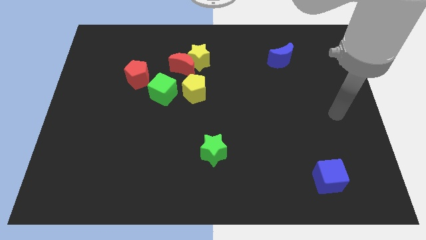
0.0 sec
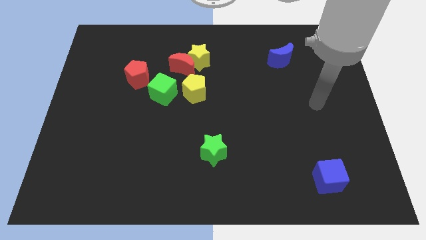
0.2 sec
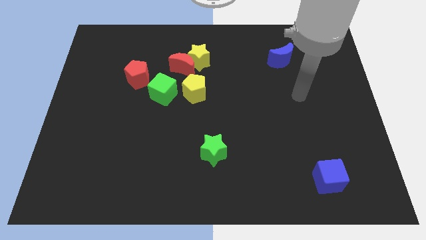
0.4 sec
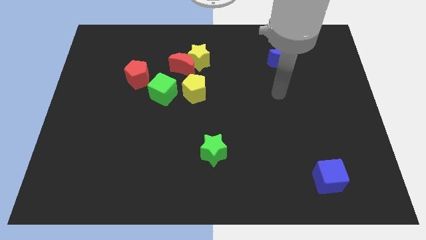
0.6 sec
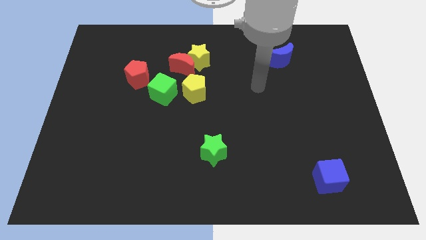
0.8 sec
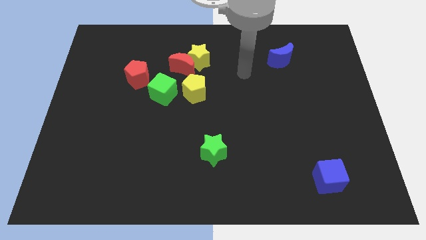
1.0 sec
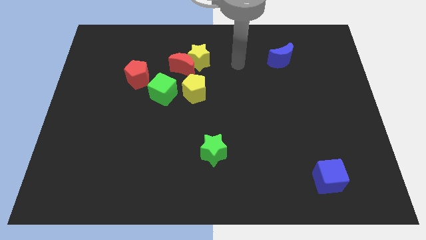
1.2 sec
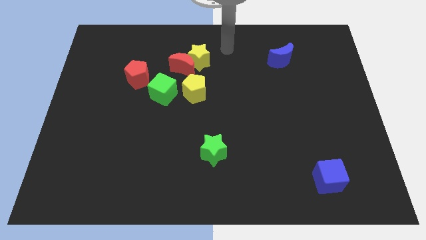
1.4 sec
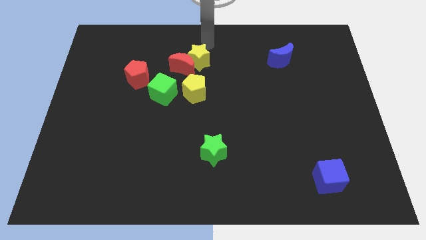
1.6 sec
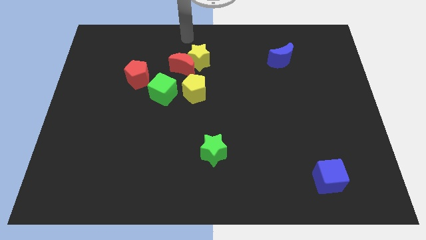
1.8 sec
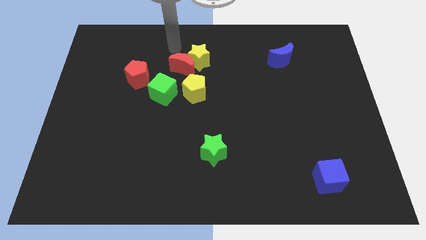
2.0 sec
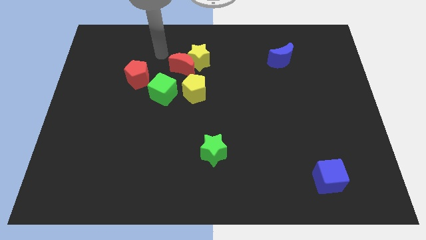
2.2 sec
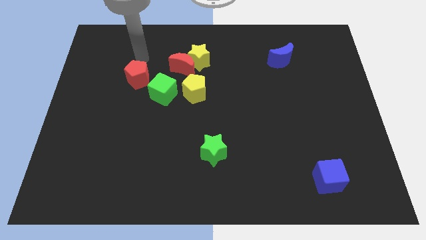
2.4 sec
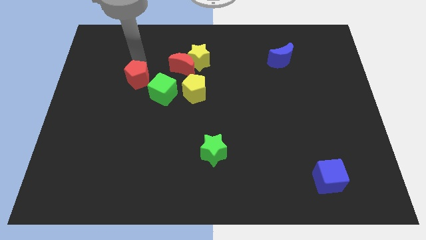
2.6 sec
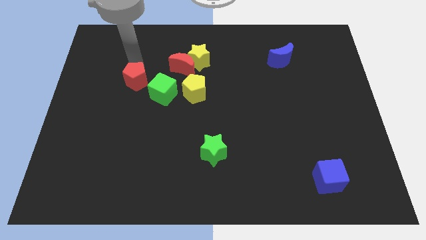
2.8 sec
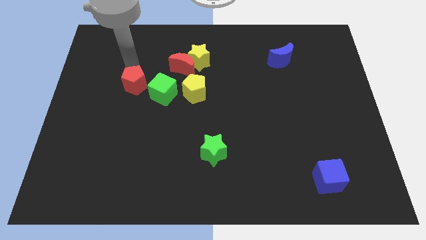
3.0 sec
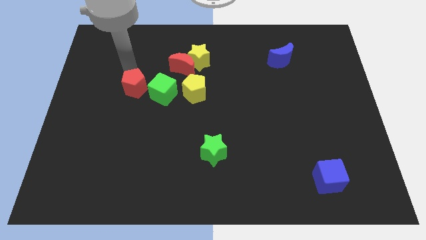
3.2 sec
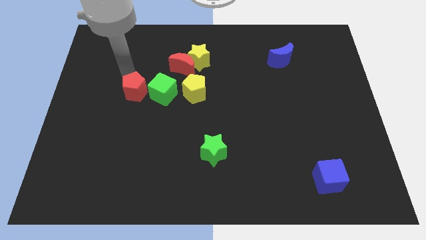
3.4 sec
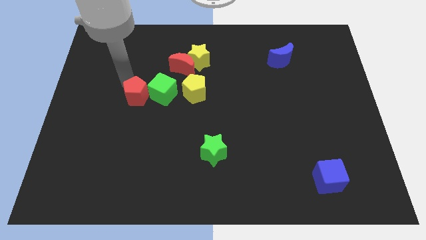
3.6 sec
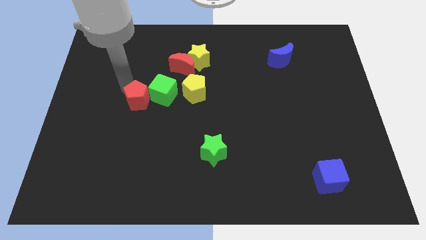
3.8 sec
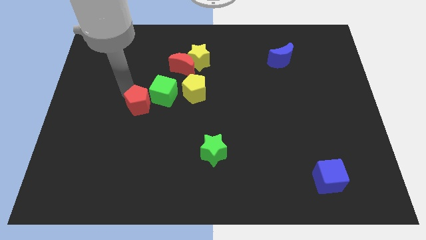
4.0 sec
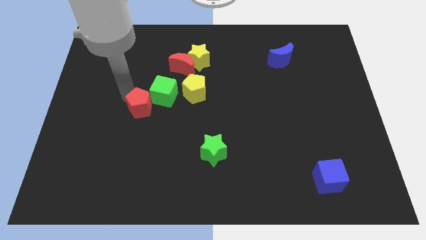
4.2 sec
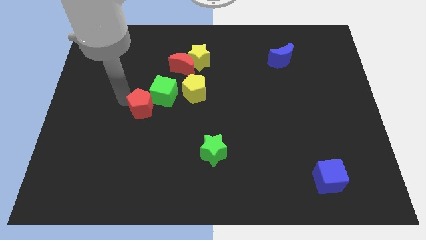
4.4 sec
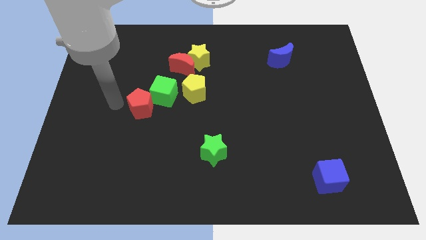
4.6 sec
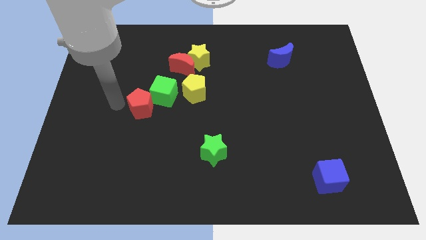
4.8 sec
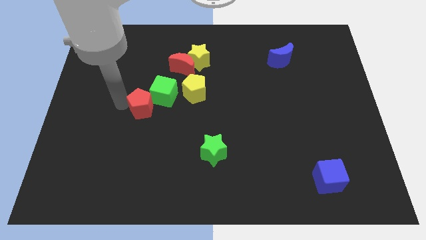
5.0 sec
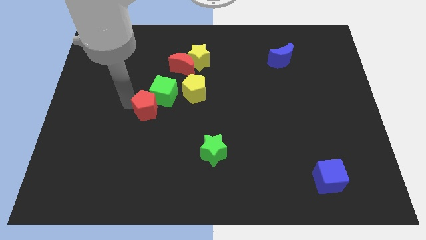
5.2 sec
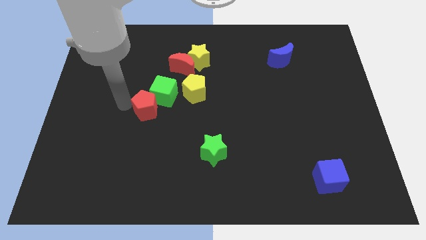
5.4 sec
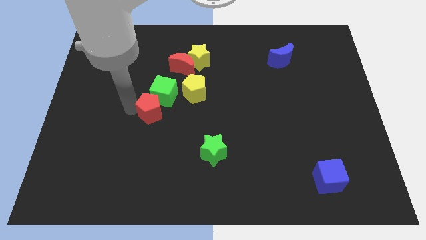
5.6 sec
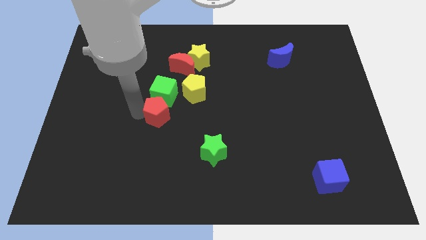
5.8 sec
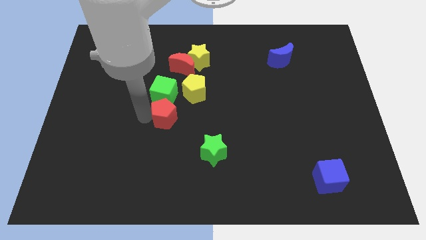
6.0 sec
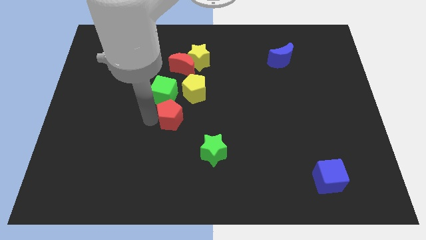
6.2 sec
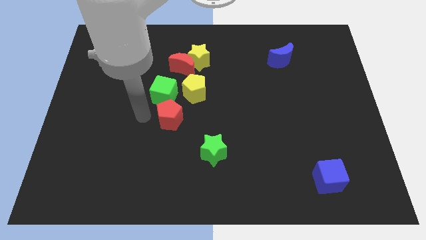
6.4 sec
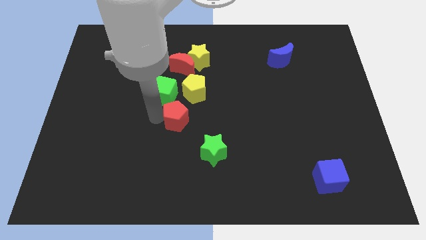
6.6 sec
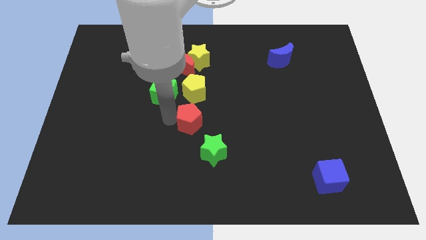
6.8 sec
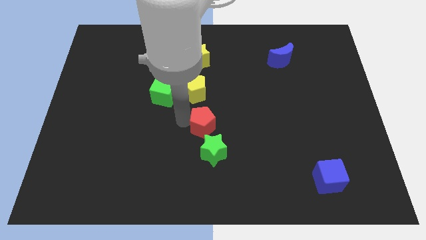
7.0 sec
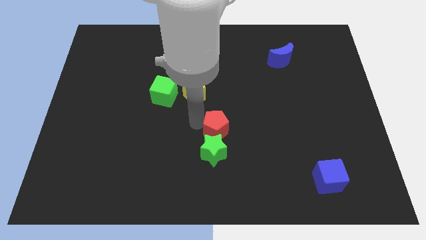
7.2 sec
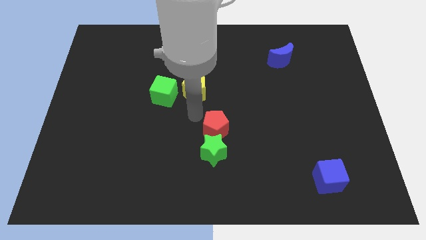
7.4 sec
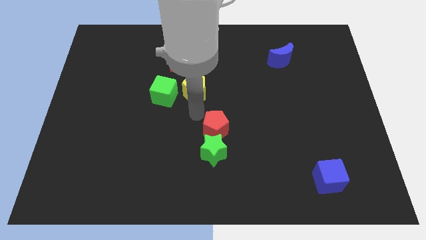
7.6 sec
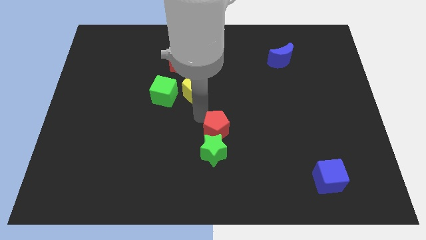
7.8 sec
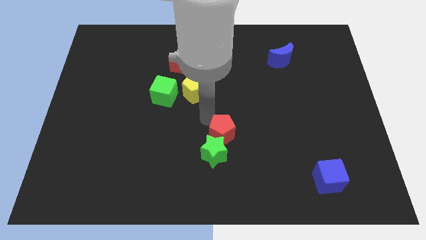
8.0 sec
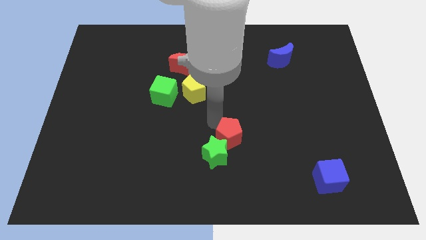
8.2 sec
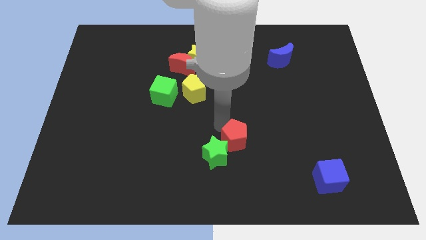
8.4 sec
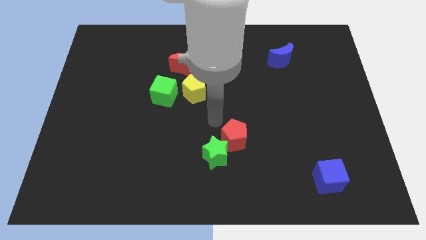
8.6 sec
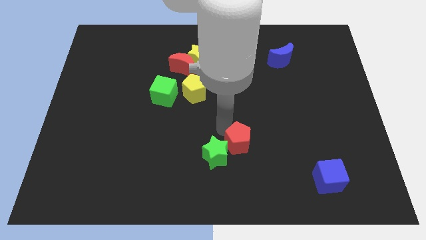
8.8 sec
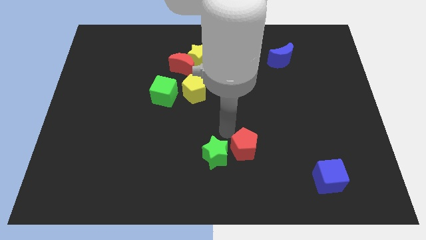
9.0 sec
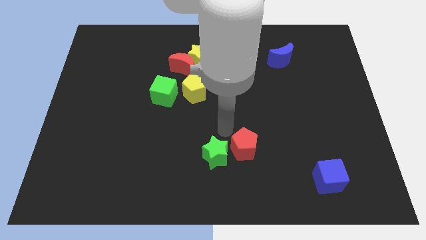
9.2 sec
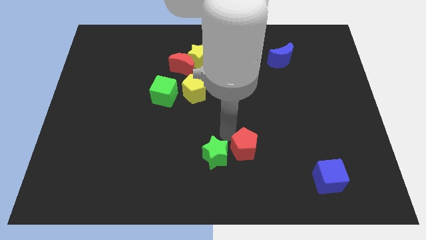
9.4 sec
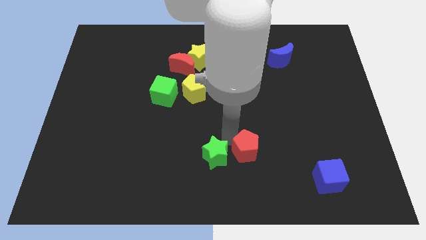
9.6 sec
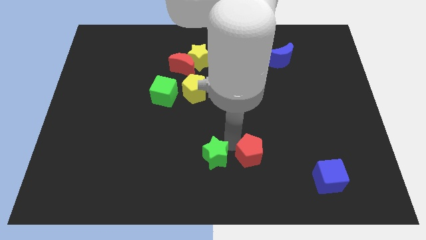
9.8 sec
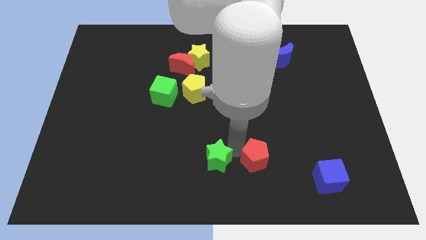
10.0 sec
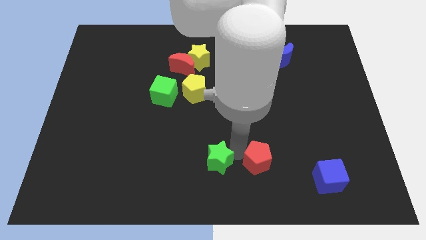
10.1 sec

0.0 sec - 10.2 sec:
put the red pentagon just left of the blue cube

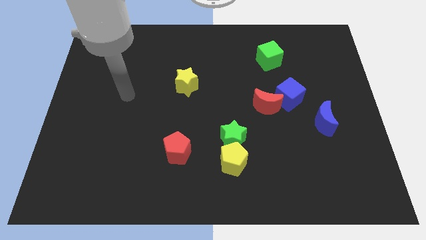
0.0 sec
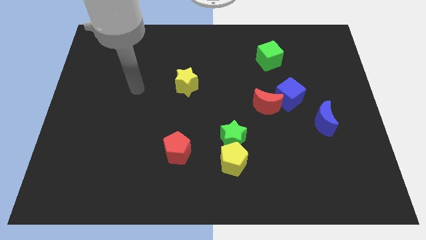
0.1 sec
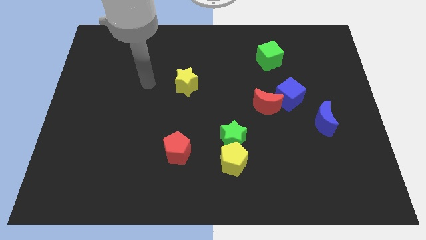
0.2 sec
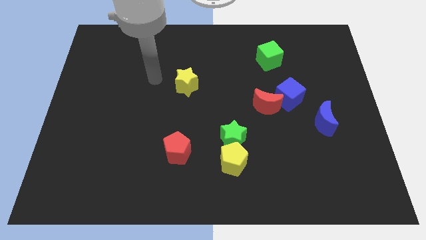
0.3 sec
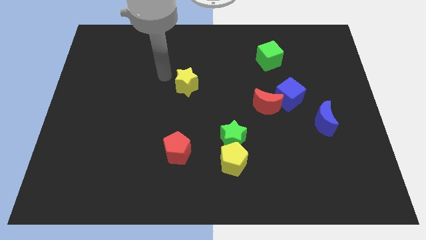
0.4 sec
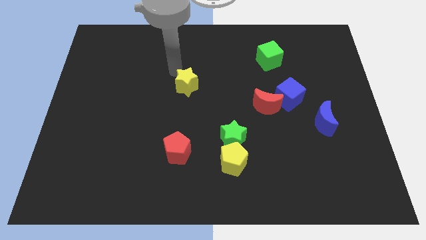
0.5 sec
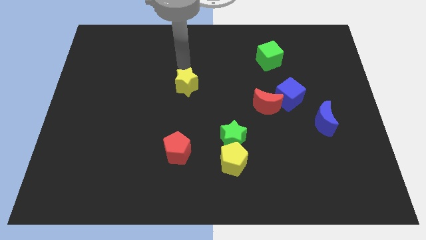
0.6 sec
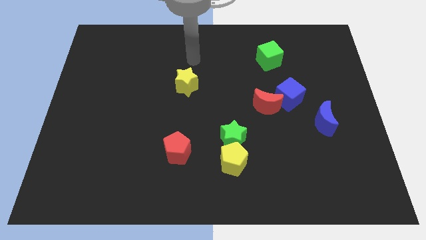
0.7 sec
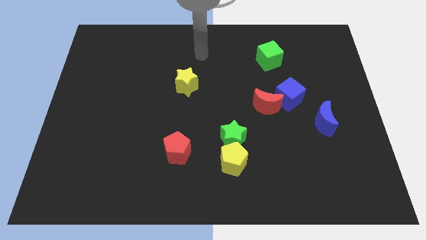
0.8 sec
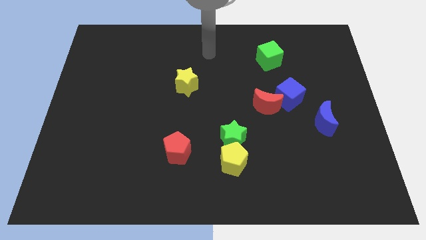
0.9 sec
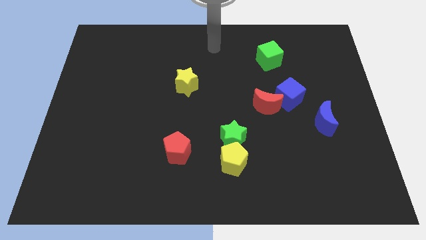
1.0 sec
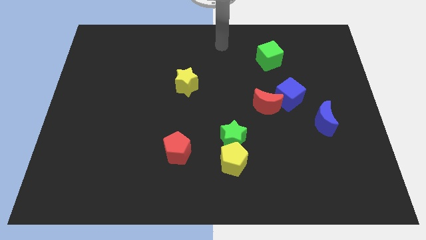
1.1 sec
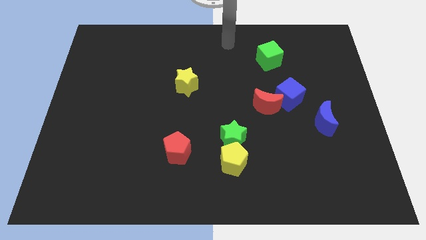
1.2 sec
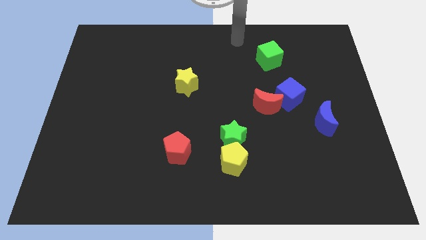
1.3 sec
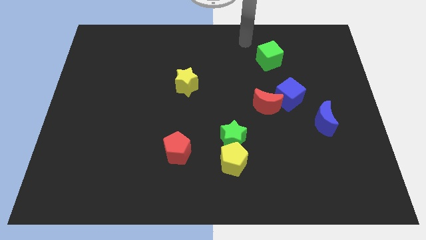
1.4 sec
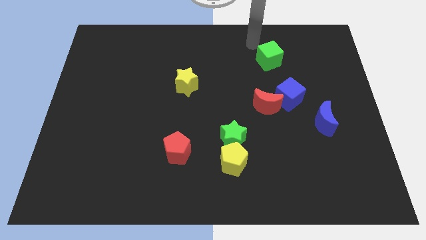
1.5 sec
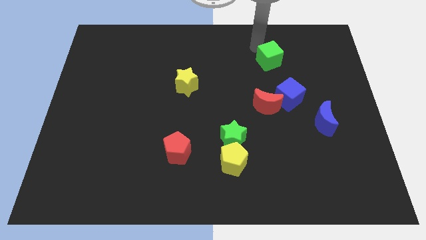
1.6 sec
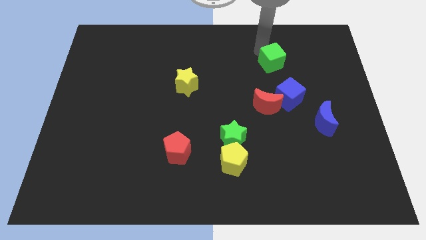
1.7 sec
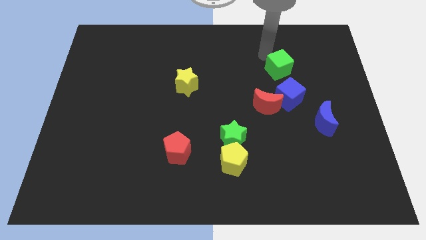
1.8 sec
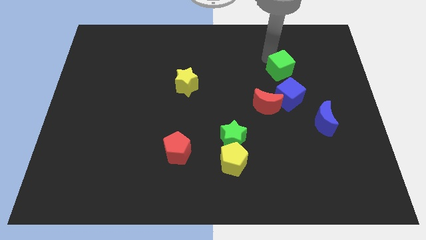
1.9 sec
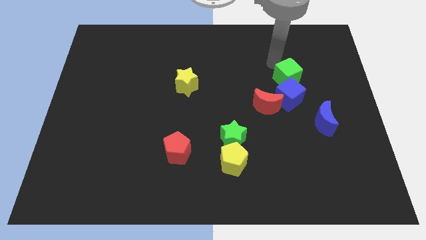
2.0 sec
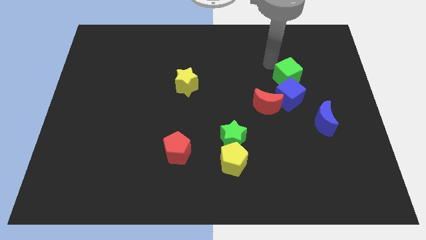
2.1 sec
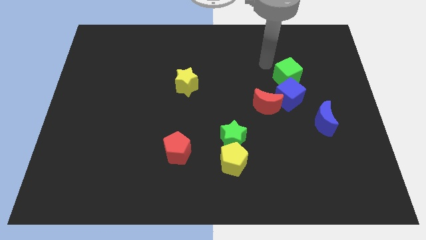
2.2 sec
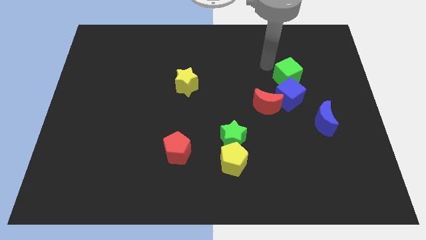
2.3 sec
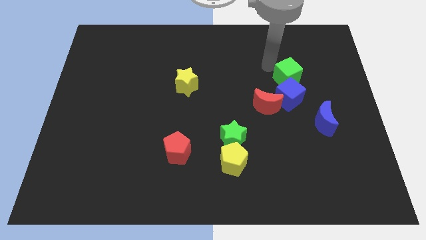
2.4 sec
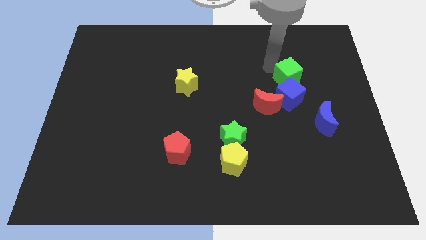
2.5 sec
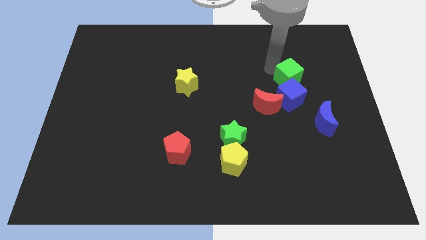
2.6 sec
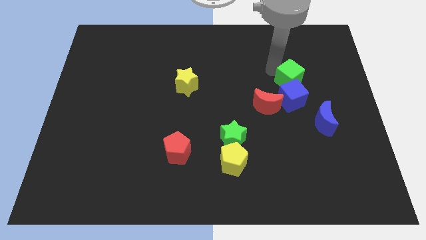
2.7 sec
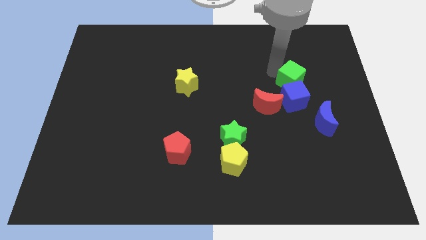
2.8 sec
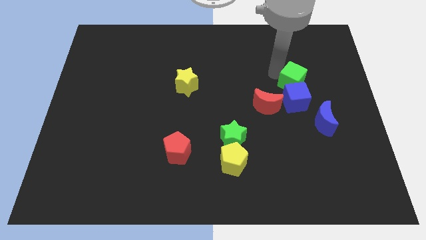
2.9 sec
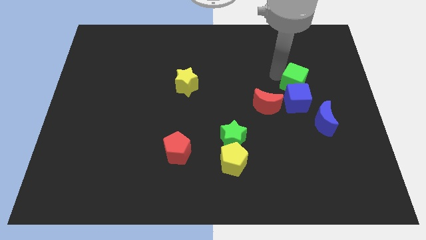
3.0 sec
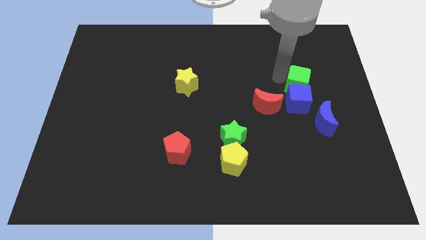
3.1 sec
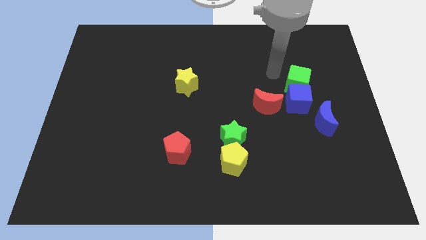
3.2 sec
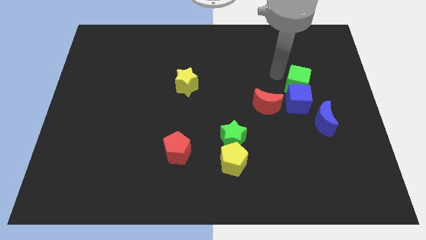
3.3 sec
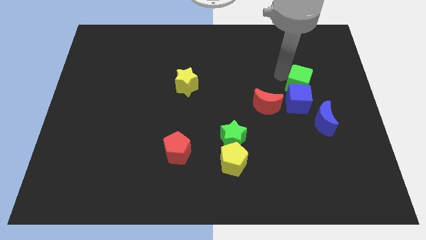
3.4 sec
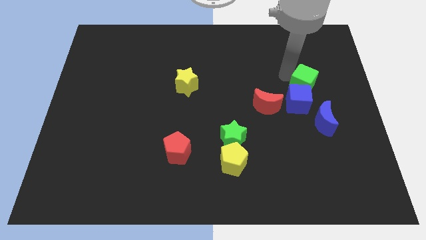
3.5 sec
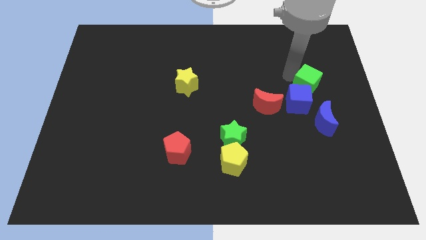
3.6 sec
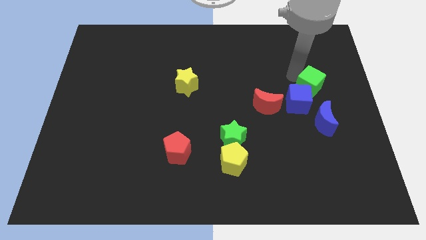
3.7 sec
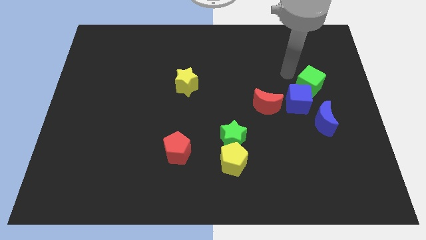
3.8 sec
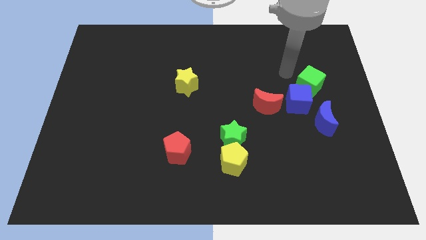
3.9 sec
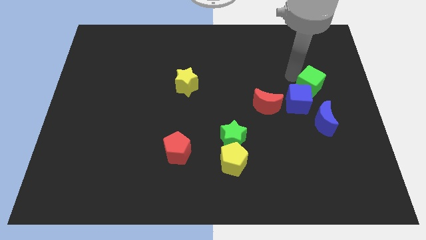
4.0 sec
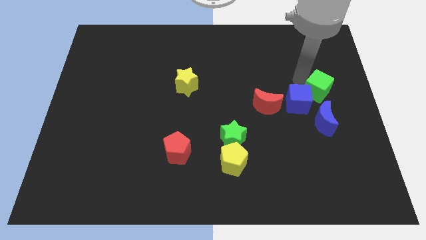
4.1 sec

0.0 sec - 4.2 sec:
move the green cube right of the blue cube
